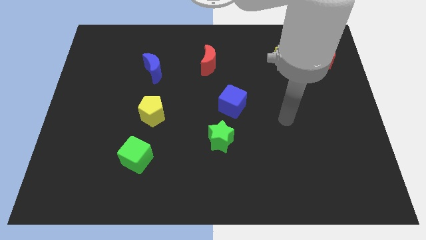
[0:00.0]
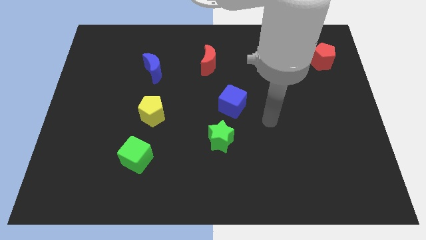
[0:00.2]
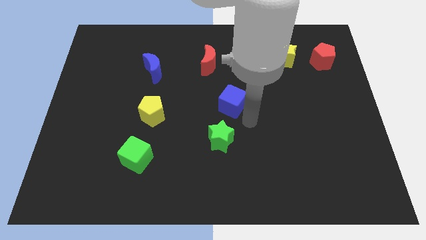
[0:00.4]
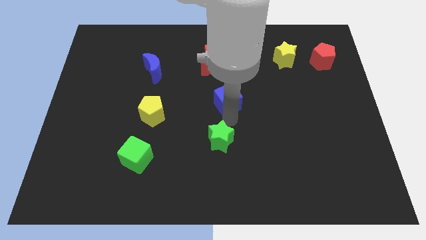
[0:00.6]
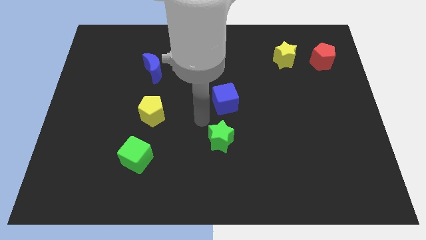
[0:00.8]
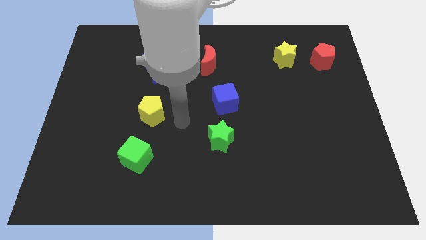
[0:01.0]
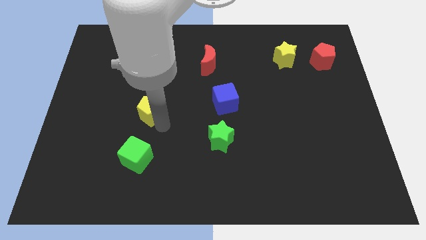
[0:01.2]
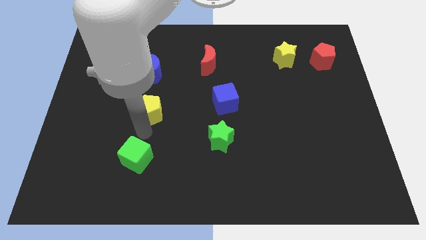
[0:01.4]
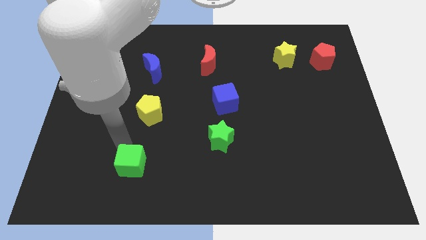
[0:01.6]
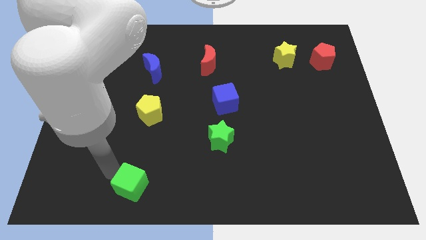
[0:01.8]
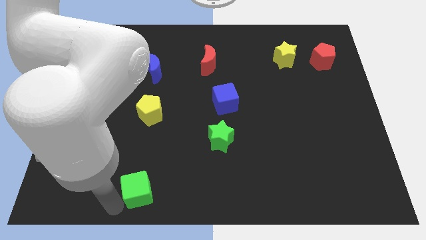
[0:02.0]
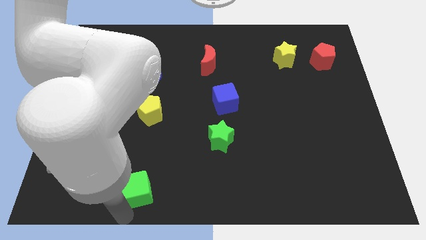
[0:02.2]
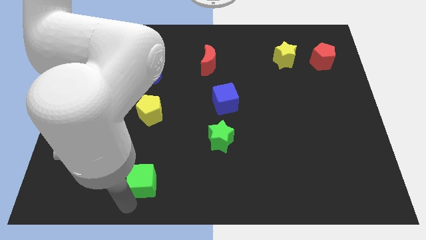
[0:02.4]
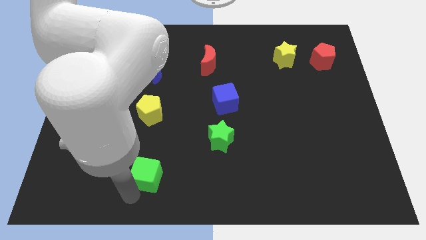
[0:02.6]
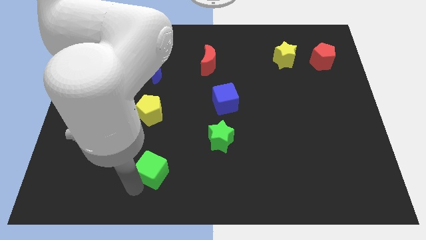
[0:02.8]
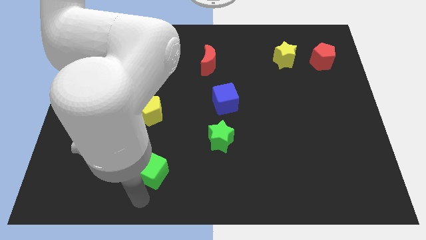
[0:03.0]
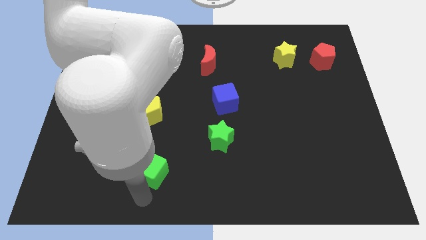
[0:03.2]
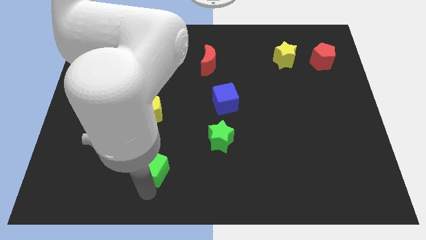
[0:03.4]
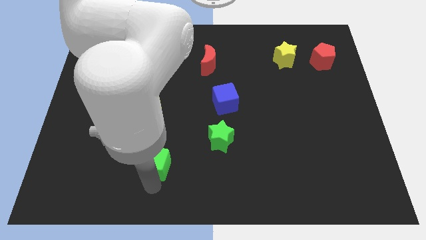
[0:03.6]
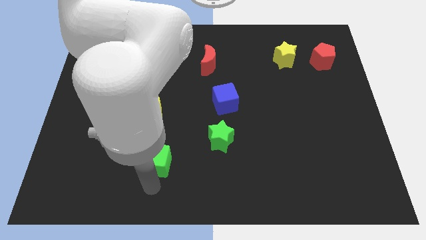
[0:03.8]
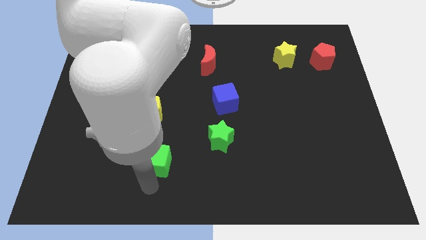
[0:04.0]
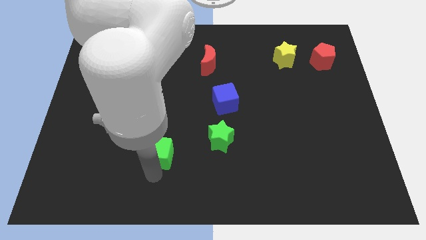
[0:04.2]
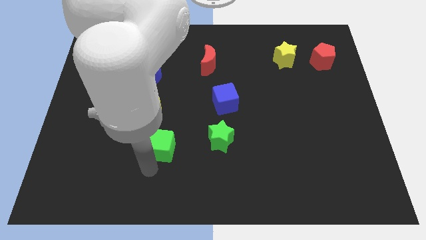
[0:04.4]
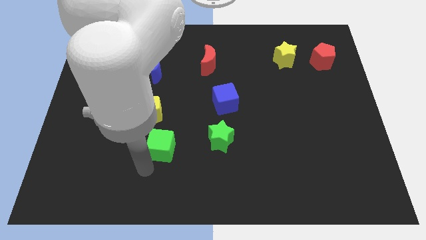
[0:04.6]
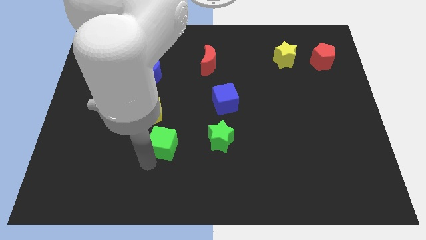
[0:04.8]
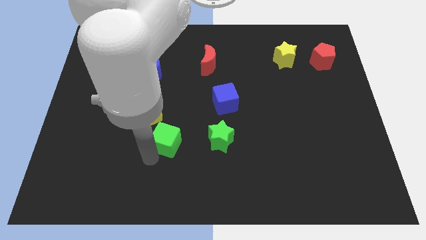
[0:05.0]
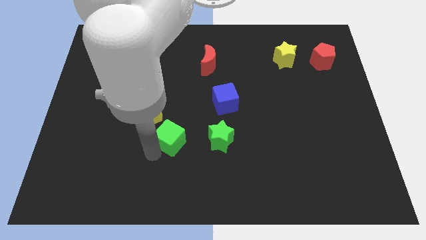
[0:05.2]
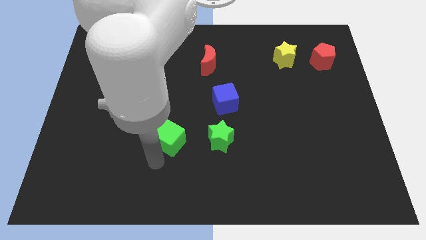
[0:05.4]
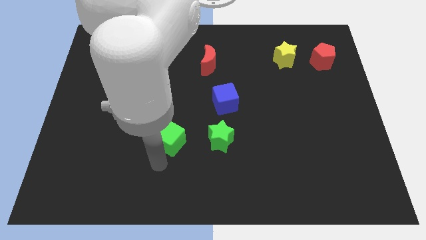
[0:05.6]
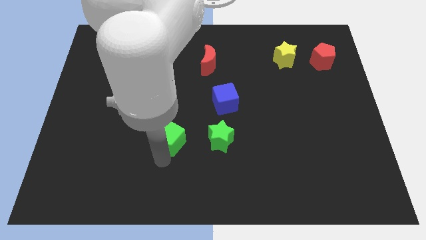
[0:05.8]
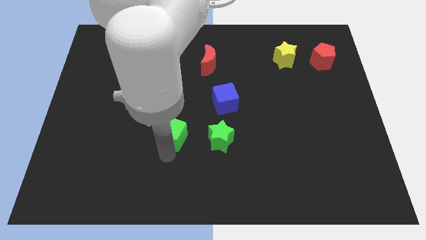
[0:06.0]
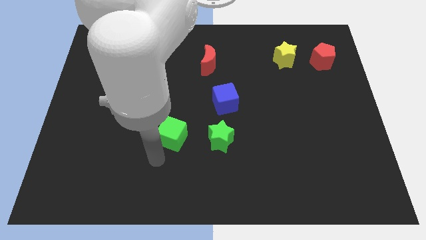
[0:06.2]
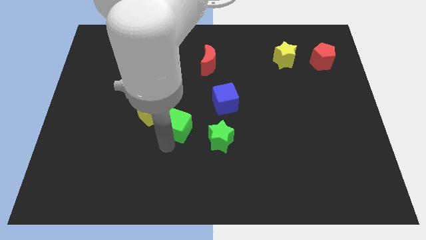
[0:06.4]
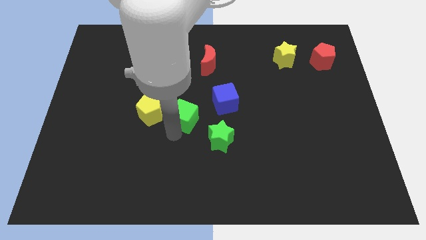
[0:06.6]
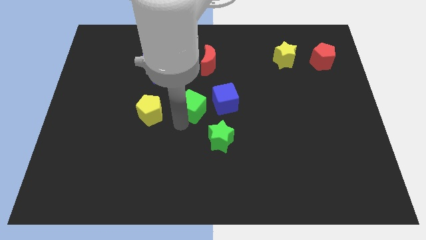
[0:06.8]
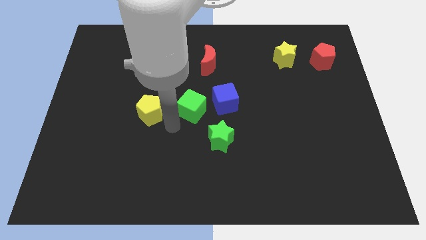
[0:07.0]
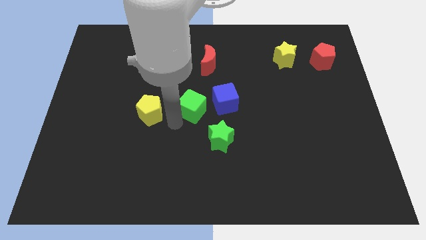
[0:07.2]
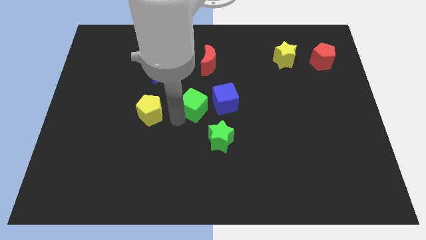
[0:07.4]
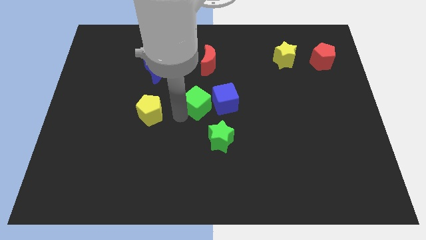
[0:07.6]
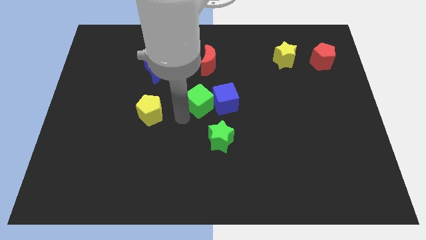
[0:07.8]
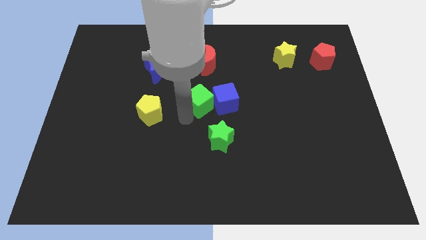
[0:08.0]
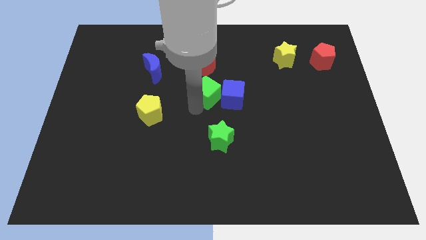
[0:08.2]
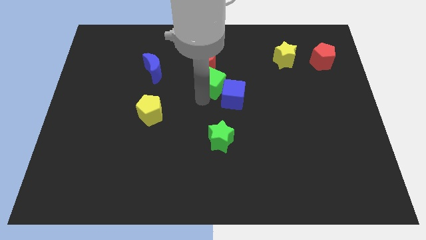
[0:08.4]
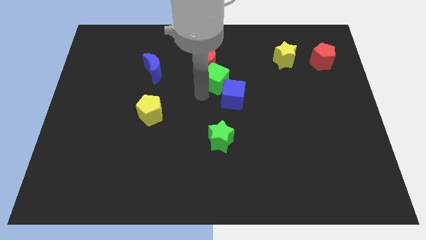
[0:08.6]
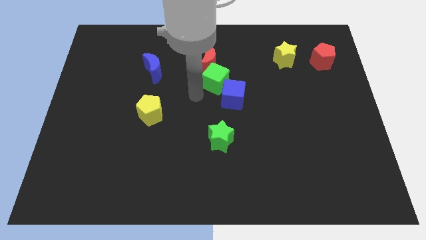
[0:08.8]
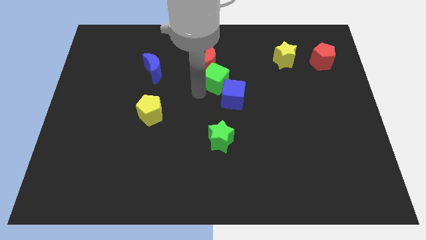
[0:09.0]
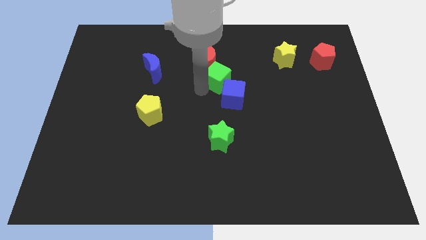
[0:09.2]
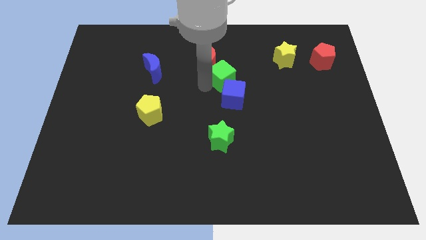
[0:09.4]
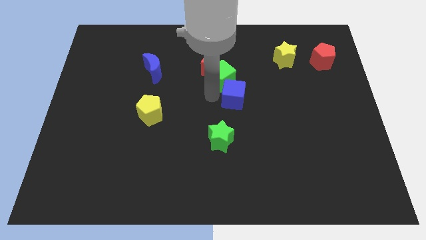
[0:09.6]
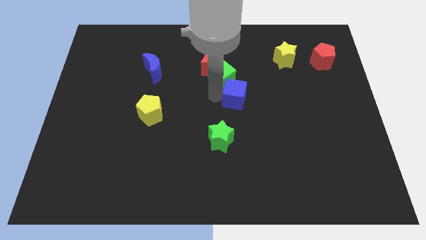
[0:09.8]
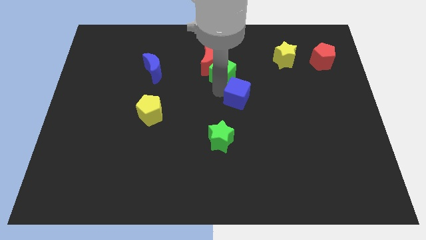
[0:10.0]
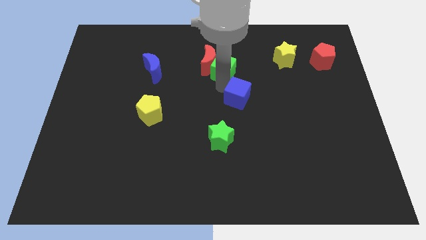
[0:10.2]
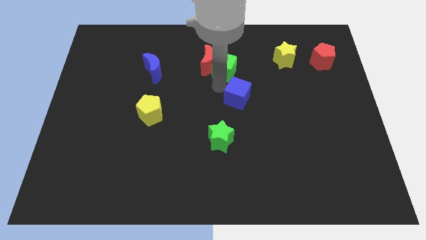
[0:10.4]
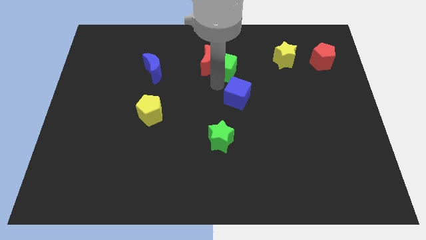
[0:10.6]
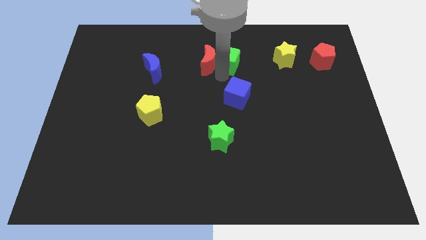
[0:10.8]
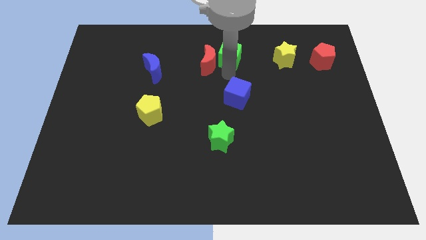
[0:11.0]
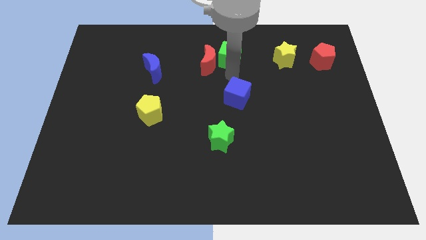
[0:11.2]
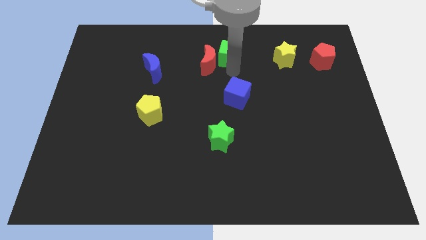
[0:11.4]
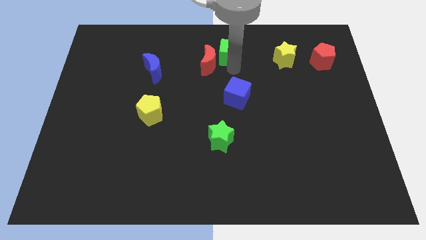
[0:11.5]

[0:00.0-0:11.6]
push the green cube to the top
